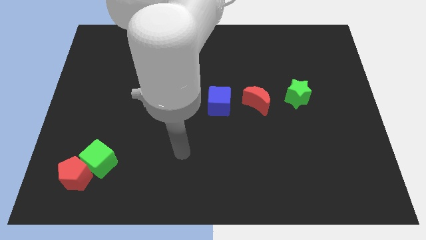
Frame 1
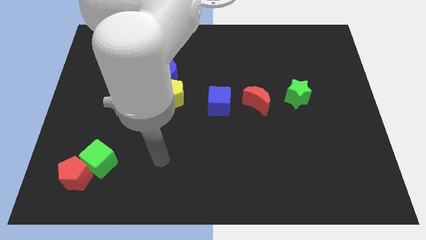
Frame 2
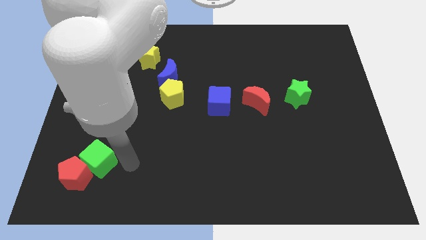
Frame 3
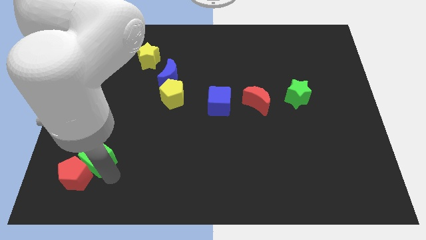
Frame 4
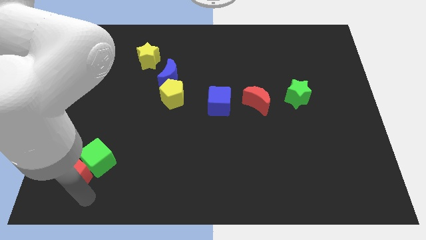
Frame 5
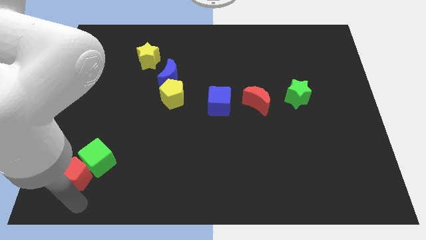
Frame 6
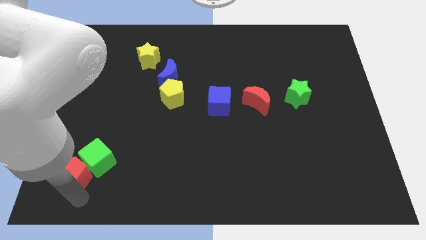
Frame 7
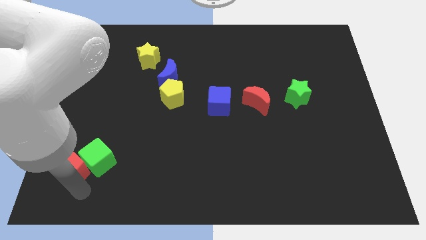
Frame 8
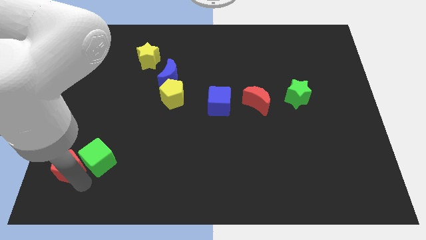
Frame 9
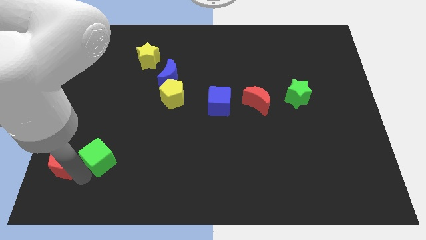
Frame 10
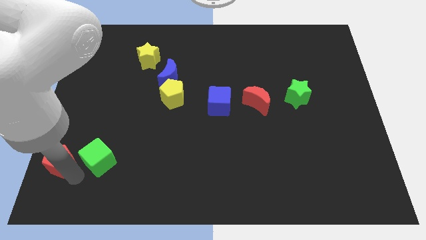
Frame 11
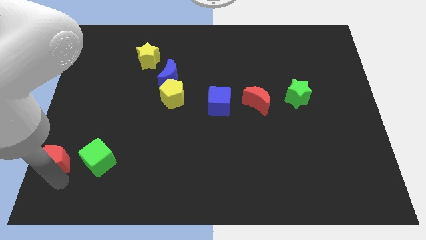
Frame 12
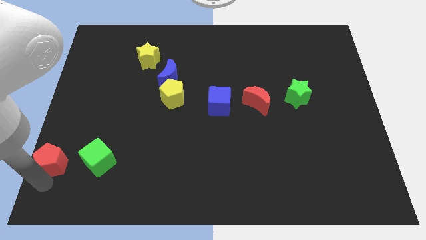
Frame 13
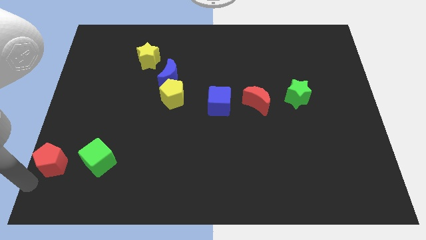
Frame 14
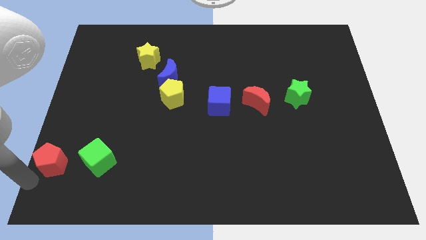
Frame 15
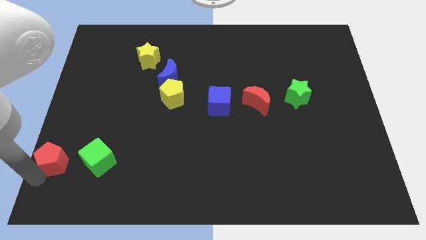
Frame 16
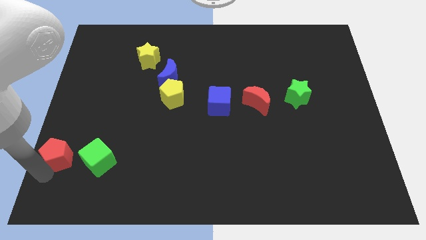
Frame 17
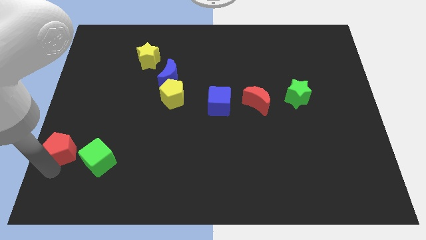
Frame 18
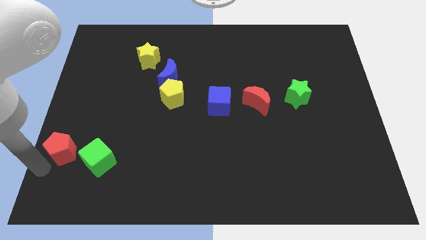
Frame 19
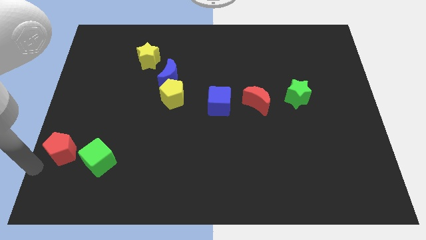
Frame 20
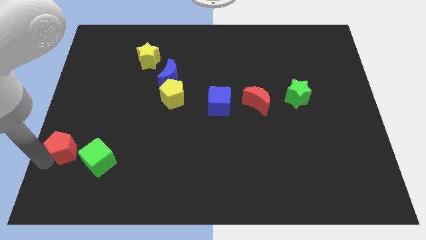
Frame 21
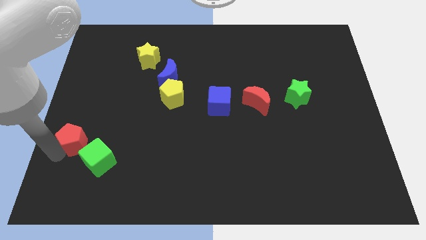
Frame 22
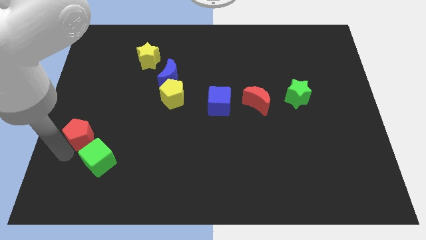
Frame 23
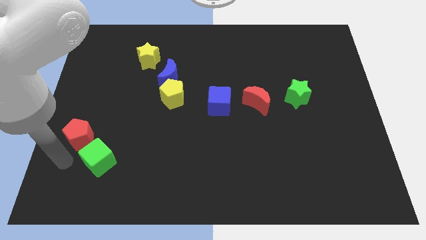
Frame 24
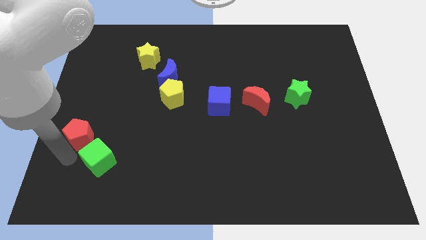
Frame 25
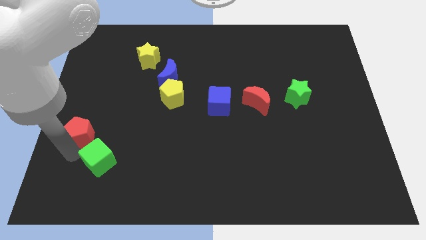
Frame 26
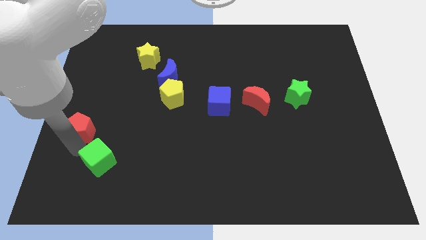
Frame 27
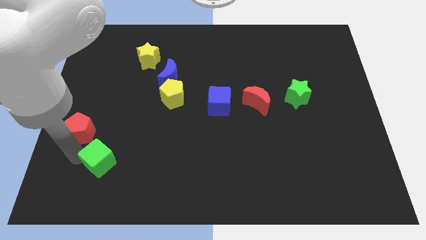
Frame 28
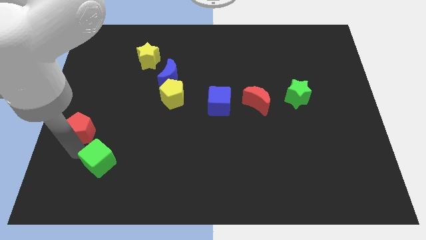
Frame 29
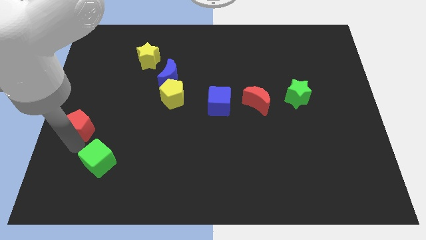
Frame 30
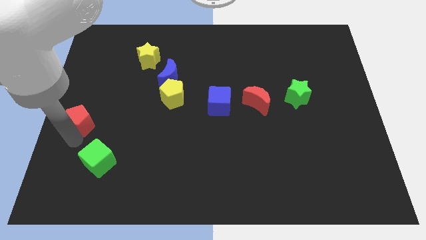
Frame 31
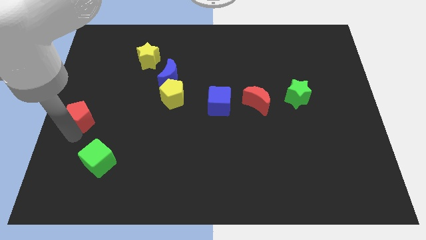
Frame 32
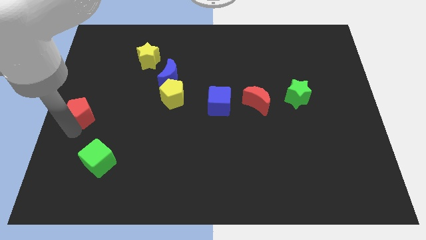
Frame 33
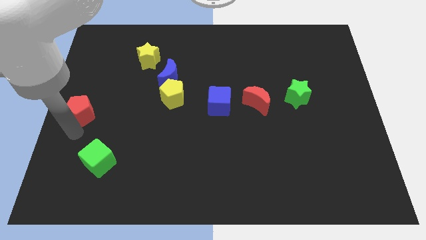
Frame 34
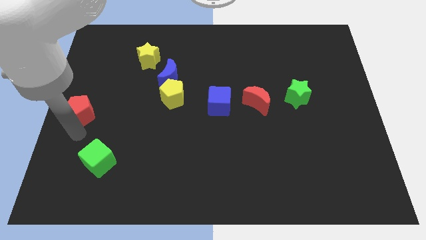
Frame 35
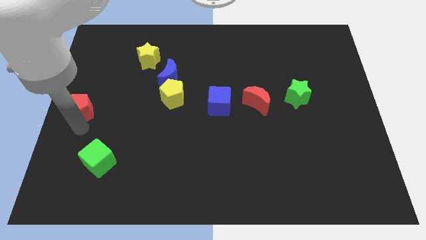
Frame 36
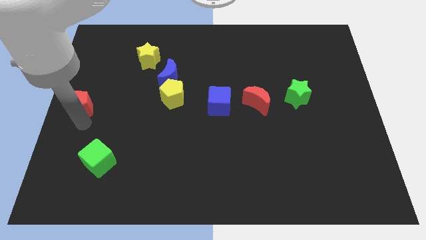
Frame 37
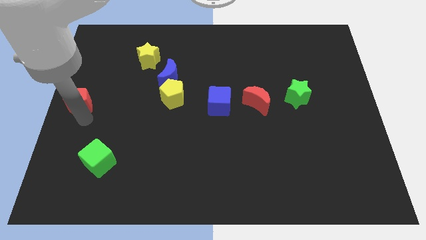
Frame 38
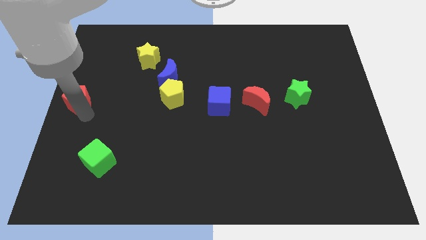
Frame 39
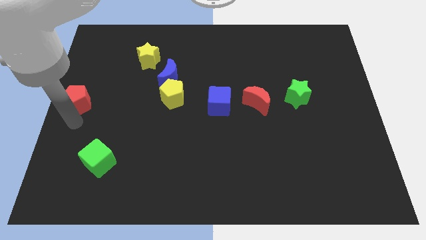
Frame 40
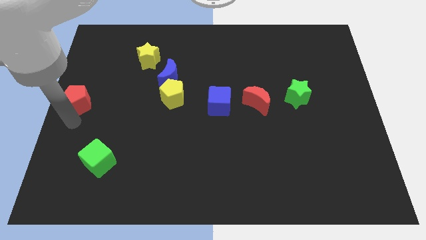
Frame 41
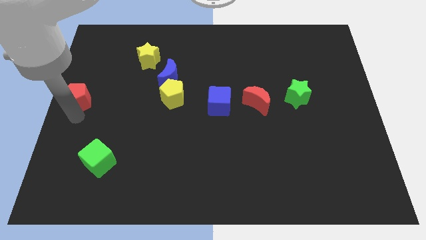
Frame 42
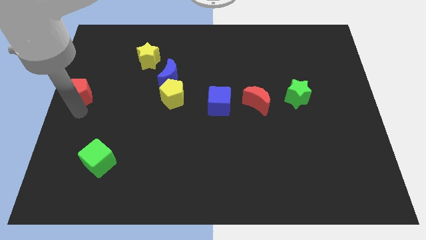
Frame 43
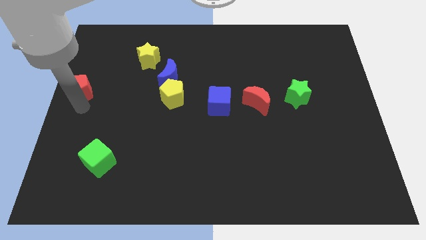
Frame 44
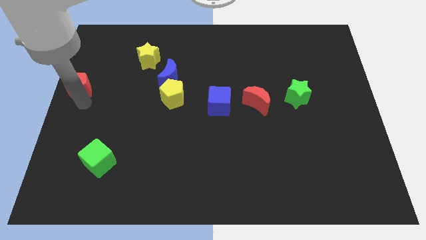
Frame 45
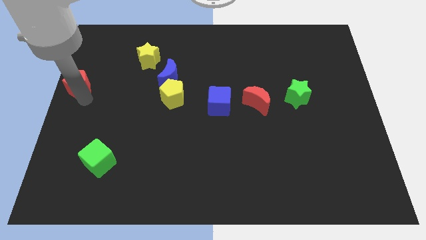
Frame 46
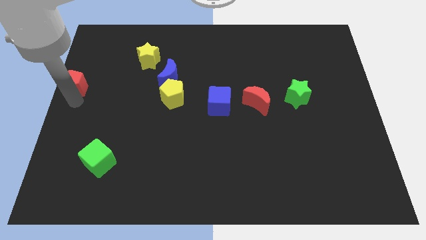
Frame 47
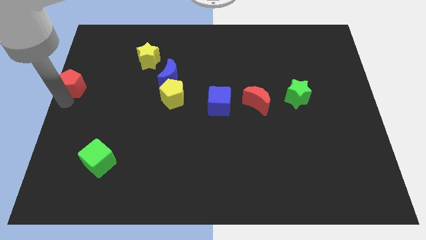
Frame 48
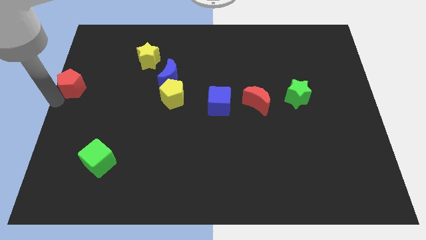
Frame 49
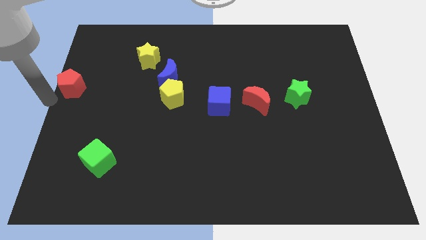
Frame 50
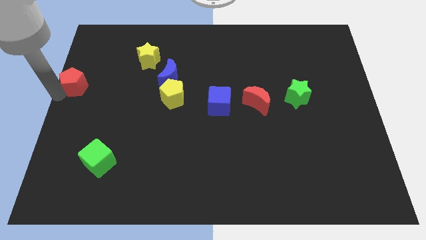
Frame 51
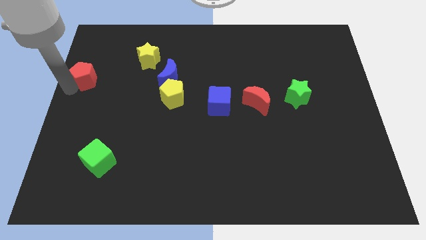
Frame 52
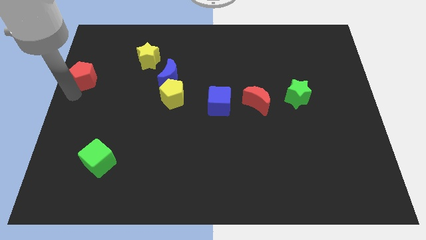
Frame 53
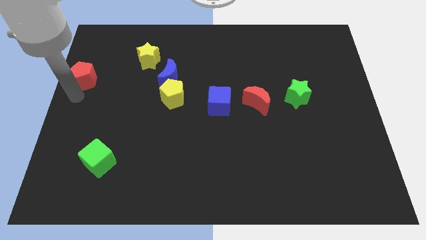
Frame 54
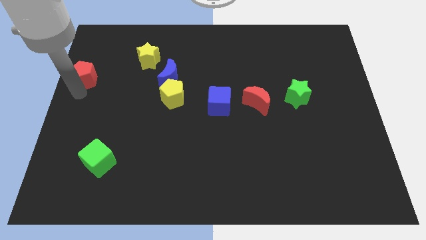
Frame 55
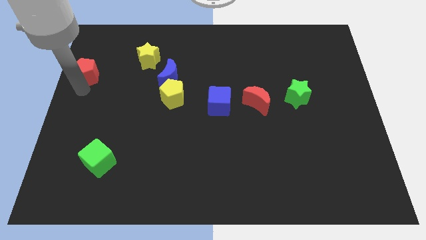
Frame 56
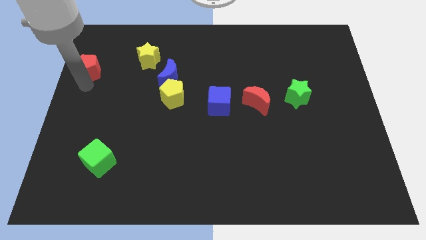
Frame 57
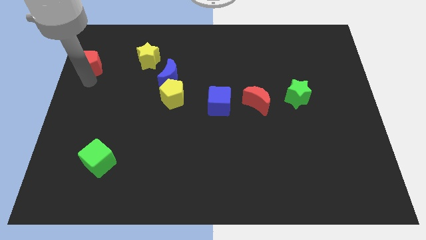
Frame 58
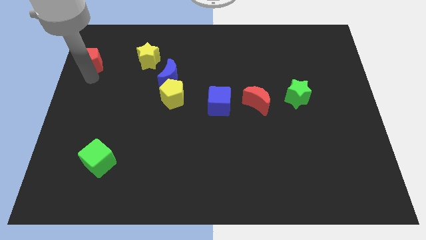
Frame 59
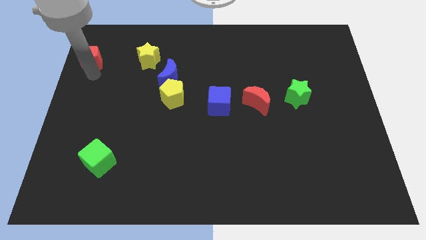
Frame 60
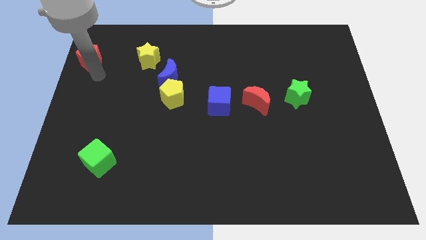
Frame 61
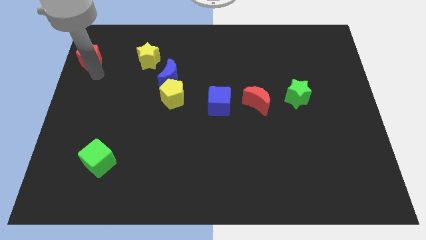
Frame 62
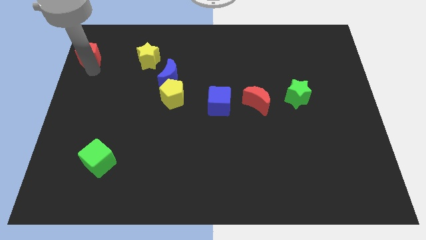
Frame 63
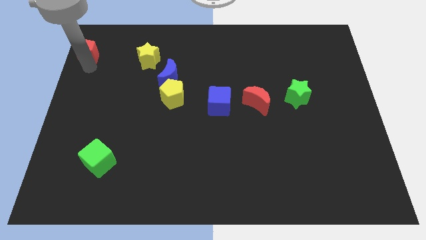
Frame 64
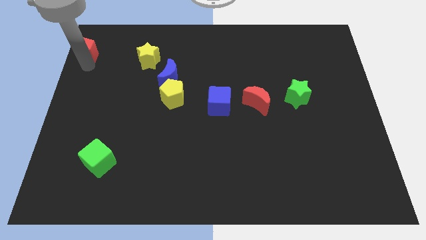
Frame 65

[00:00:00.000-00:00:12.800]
push the red pentagon to the top left of the board

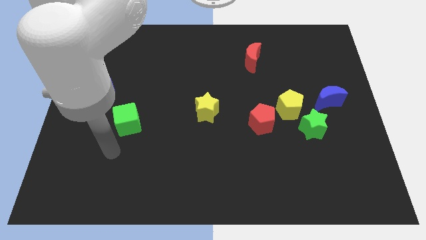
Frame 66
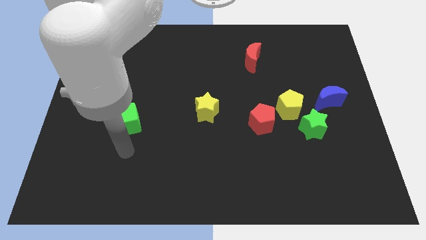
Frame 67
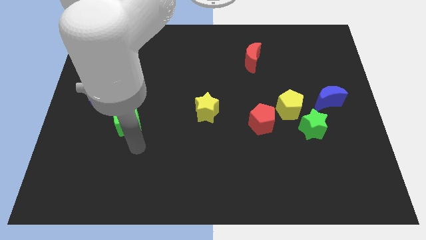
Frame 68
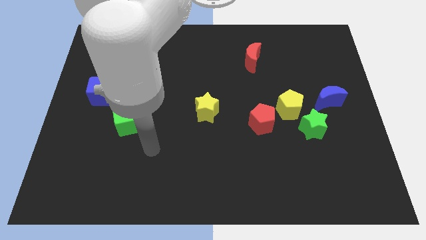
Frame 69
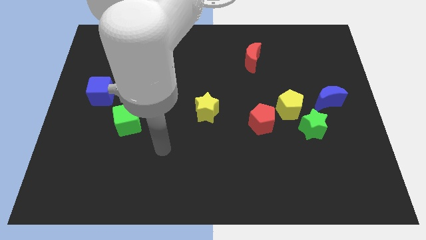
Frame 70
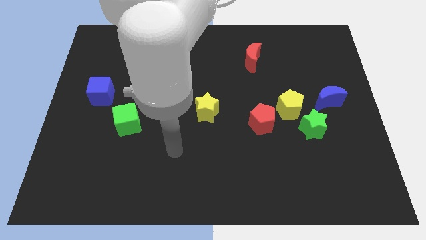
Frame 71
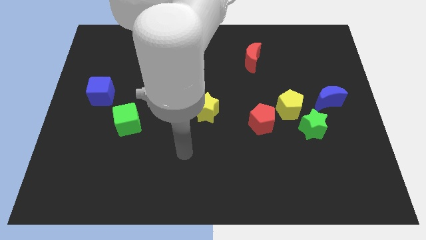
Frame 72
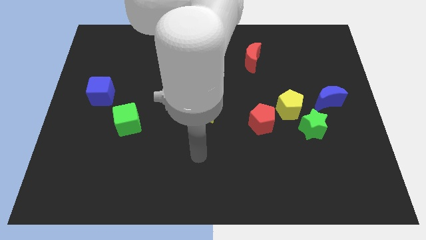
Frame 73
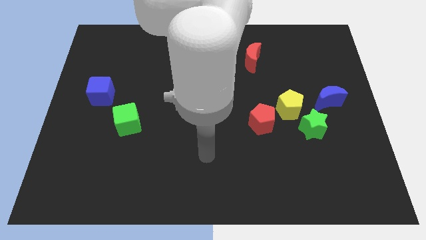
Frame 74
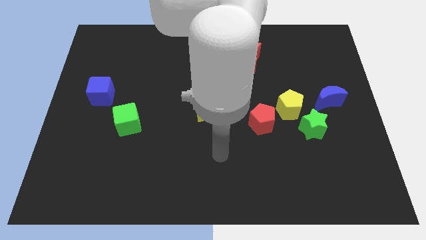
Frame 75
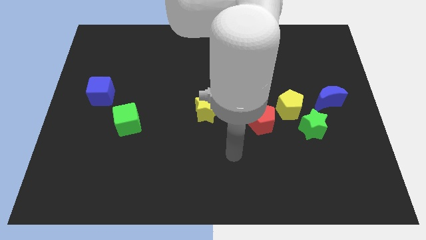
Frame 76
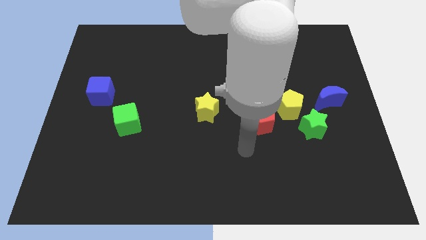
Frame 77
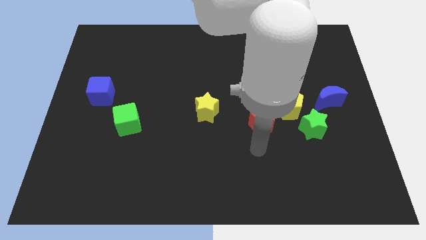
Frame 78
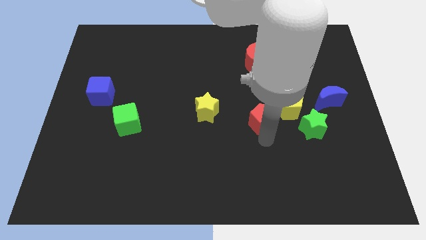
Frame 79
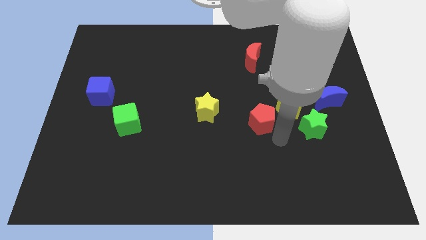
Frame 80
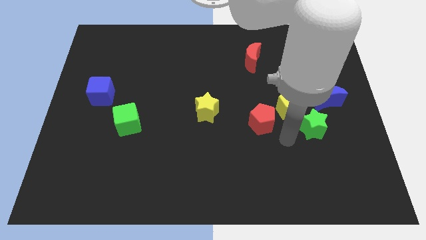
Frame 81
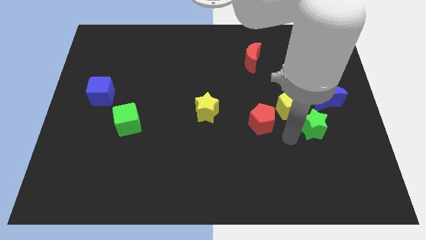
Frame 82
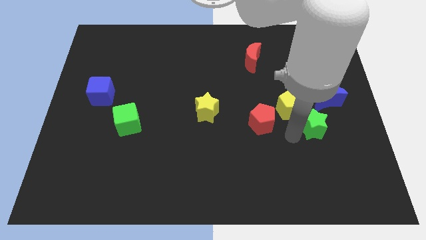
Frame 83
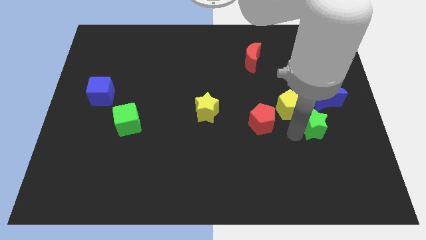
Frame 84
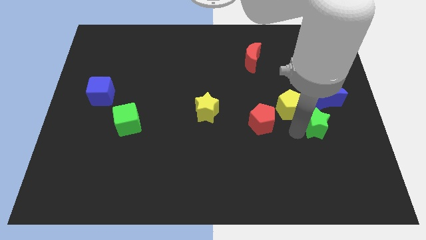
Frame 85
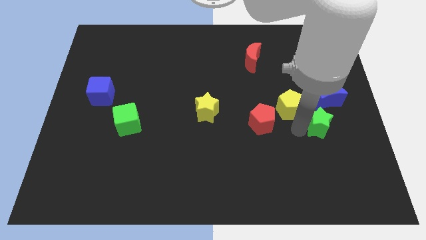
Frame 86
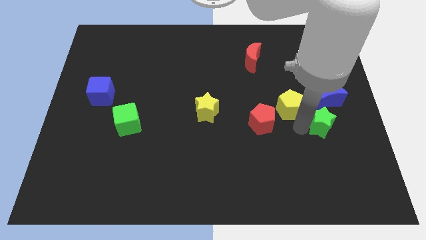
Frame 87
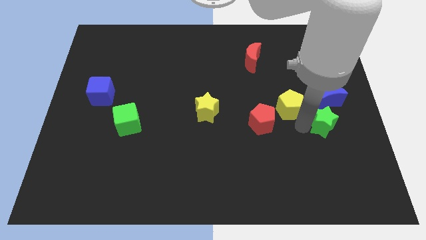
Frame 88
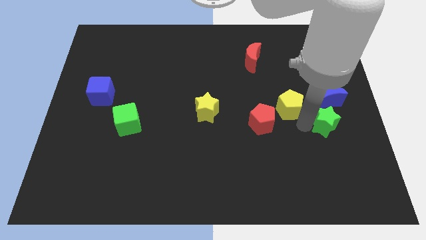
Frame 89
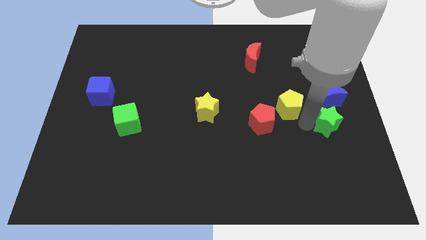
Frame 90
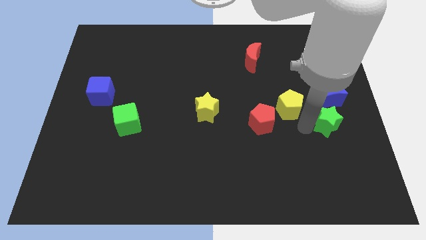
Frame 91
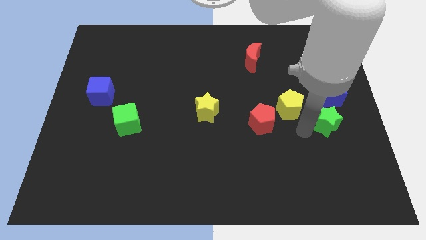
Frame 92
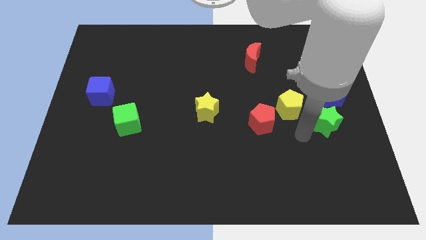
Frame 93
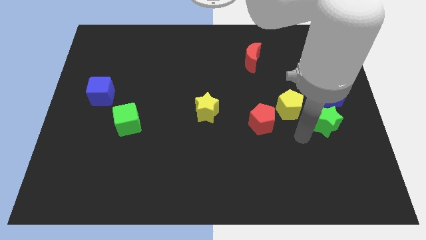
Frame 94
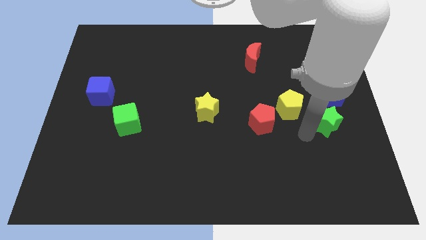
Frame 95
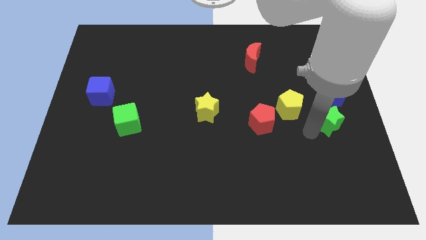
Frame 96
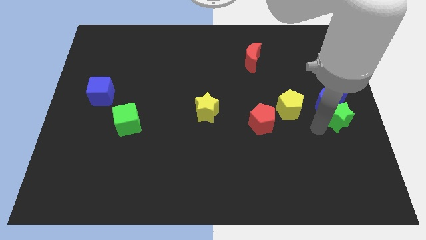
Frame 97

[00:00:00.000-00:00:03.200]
push the green star to the right side
